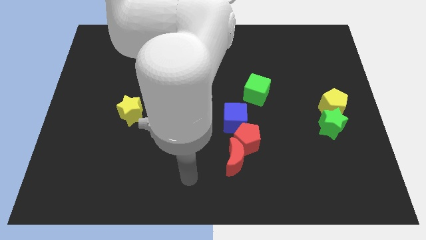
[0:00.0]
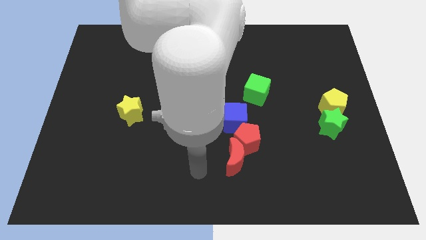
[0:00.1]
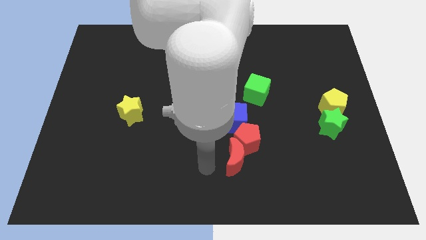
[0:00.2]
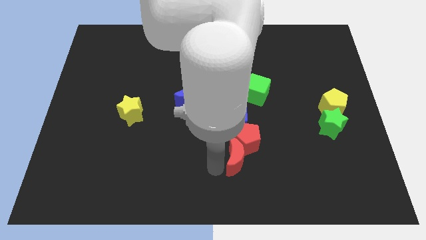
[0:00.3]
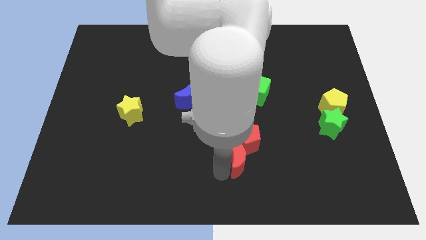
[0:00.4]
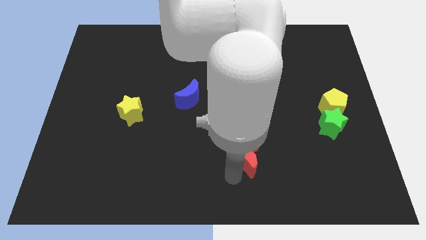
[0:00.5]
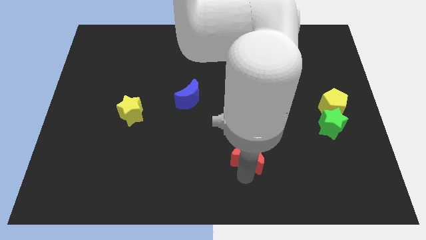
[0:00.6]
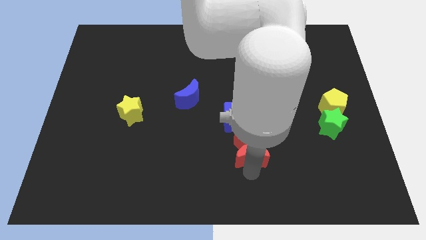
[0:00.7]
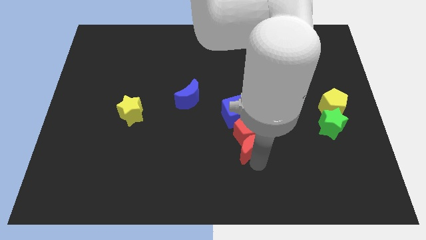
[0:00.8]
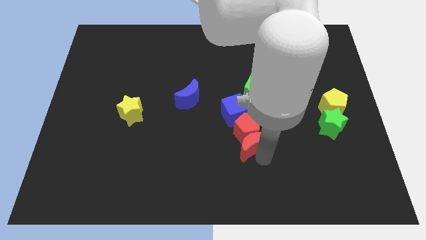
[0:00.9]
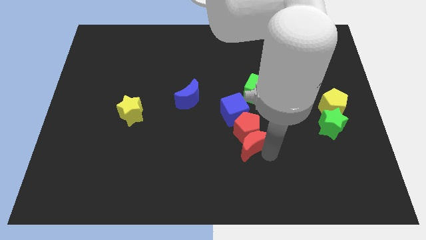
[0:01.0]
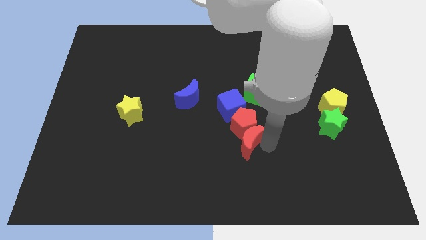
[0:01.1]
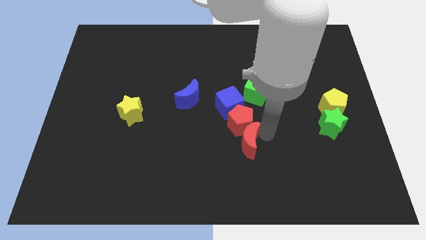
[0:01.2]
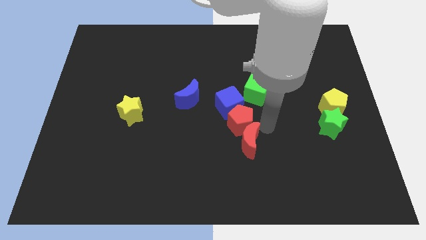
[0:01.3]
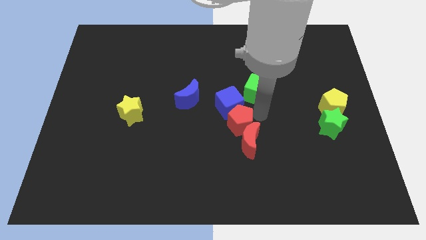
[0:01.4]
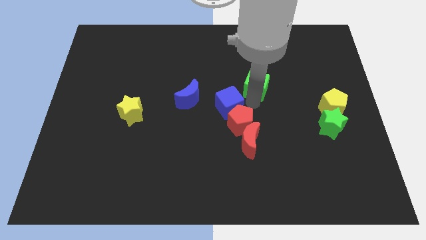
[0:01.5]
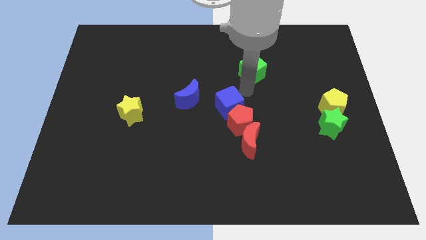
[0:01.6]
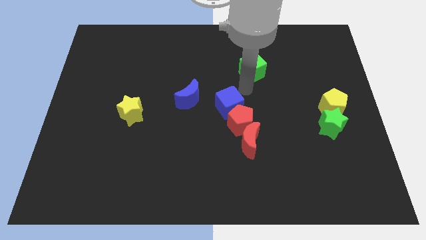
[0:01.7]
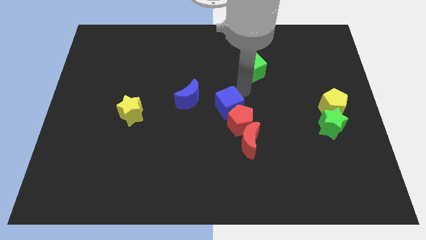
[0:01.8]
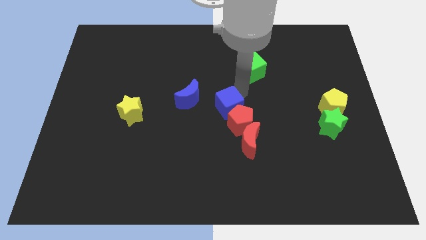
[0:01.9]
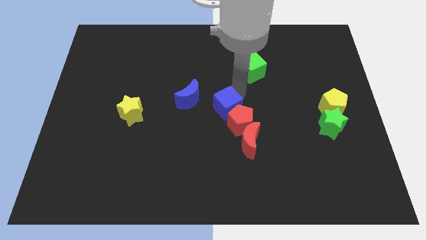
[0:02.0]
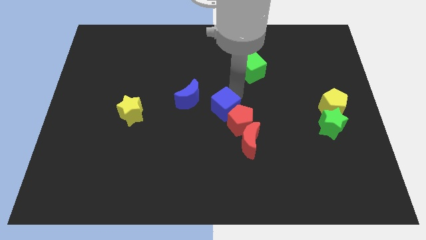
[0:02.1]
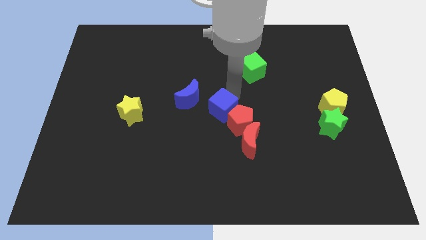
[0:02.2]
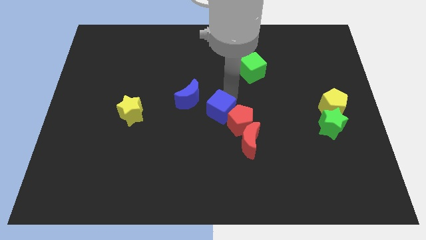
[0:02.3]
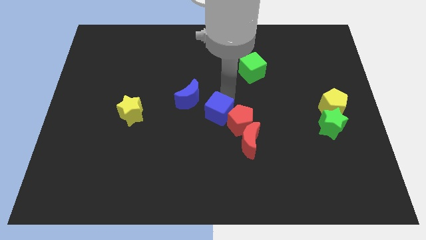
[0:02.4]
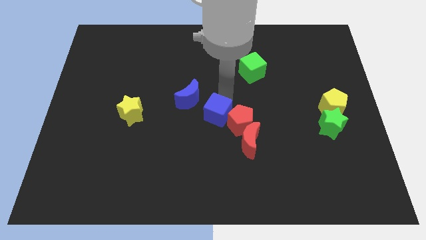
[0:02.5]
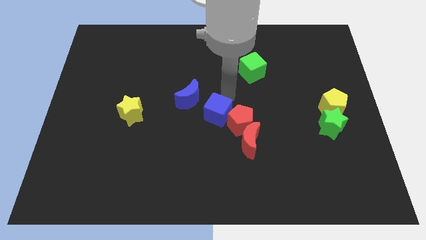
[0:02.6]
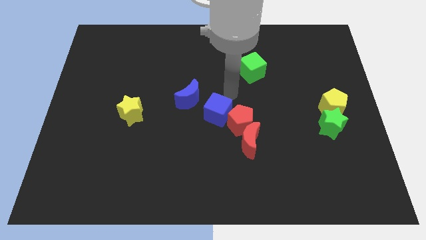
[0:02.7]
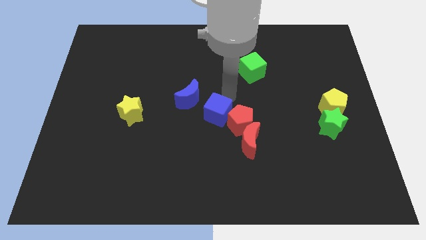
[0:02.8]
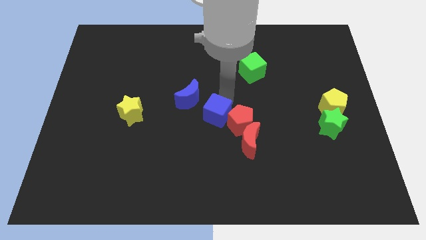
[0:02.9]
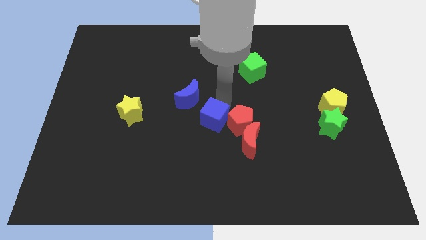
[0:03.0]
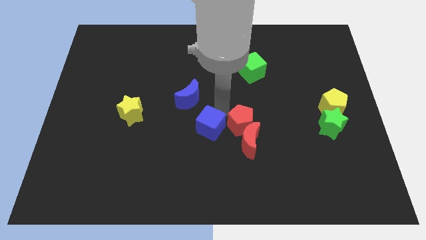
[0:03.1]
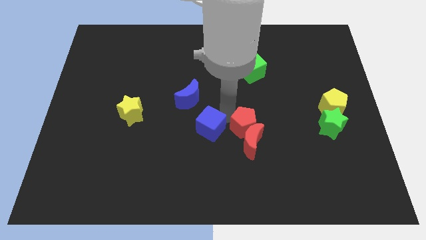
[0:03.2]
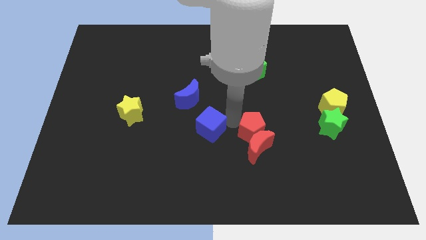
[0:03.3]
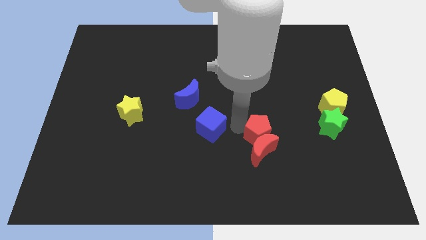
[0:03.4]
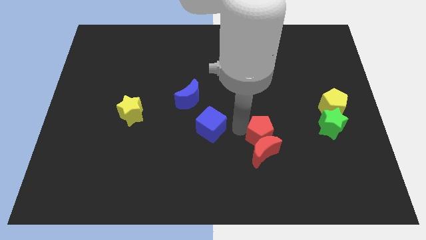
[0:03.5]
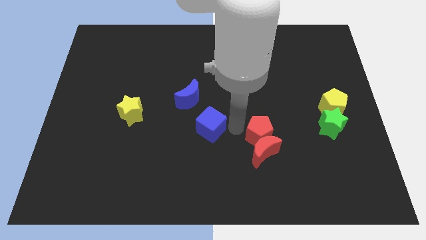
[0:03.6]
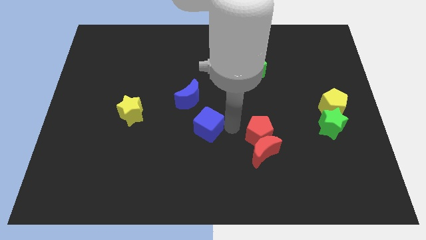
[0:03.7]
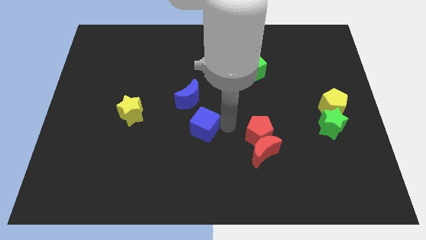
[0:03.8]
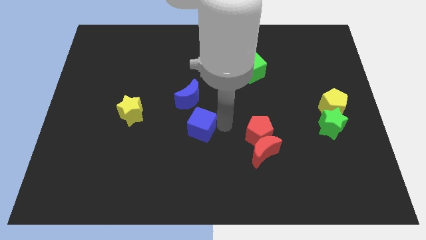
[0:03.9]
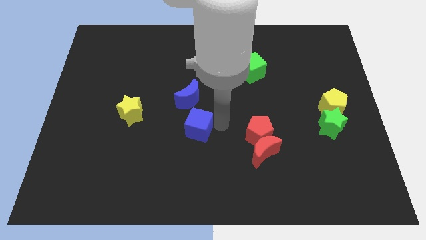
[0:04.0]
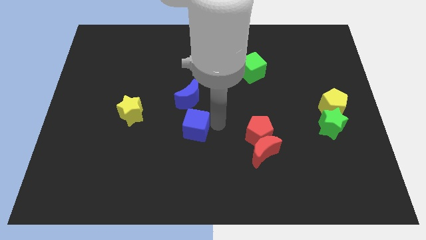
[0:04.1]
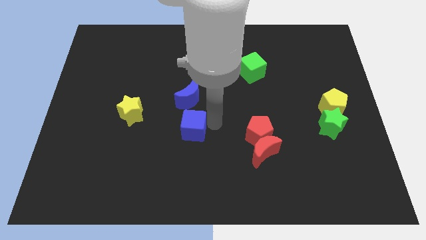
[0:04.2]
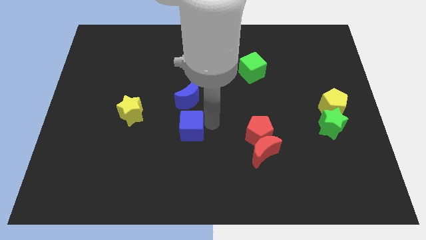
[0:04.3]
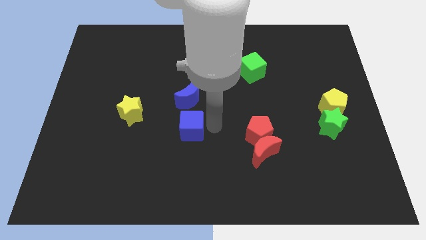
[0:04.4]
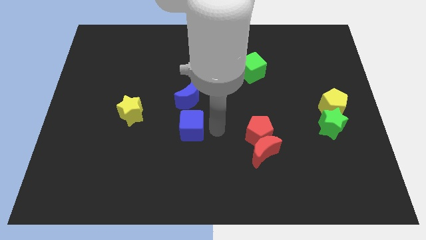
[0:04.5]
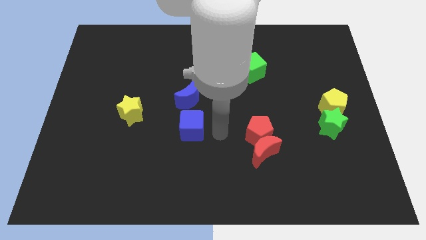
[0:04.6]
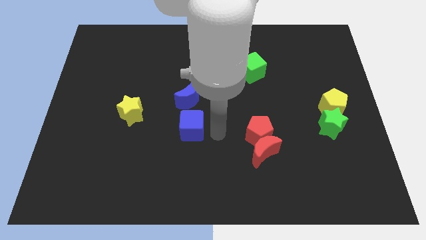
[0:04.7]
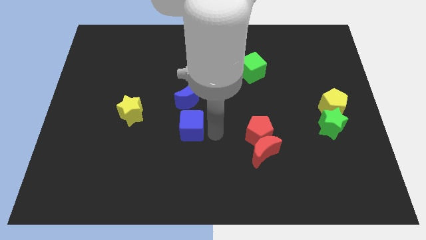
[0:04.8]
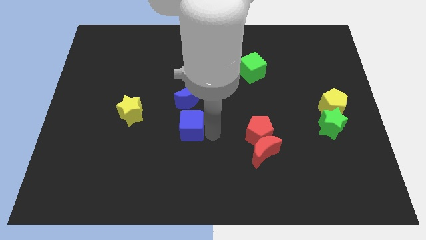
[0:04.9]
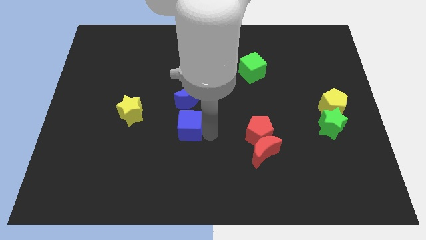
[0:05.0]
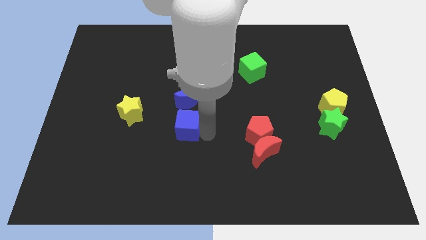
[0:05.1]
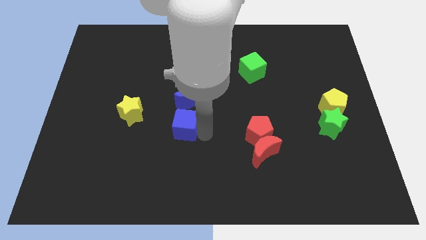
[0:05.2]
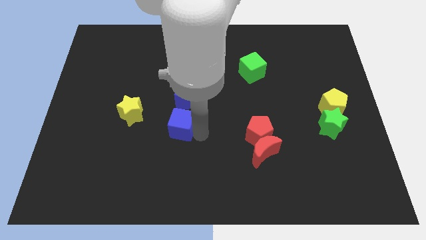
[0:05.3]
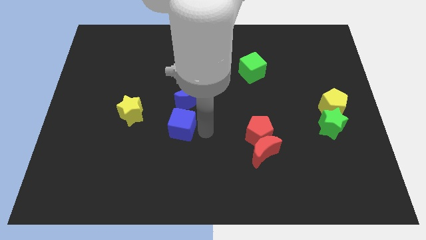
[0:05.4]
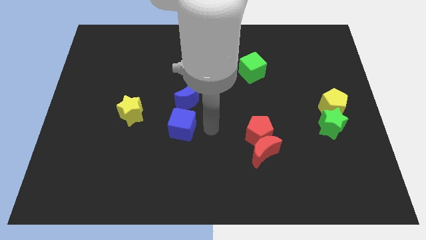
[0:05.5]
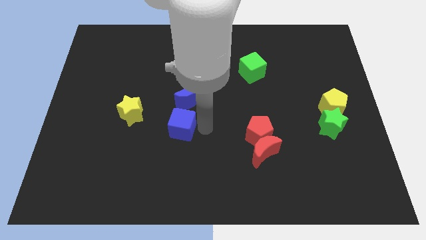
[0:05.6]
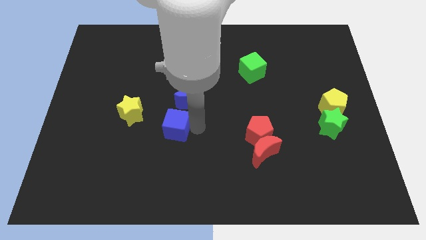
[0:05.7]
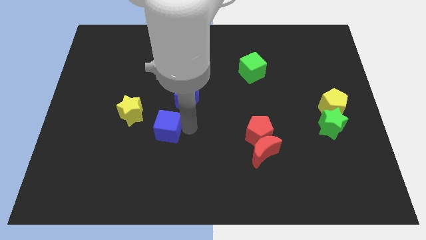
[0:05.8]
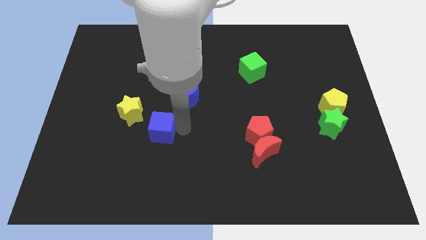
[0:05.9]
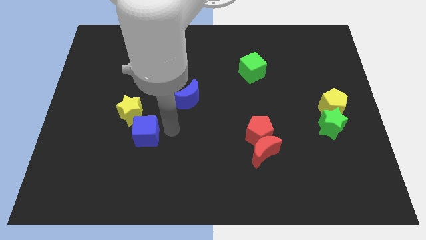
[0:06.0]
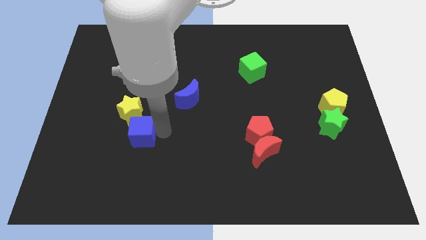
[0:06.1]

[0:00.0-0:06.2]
push the blue cube left

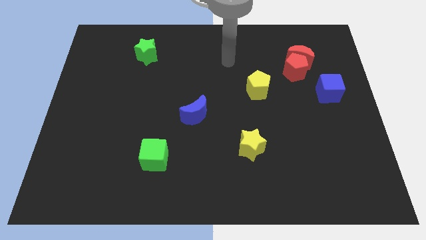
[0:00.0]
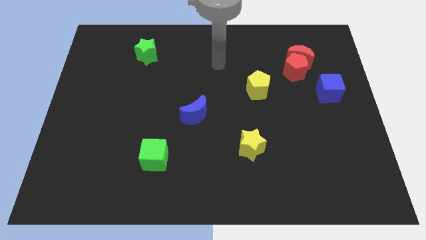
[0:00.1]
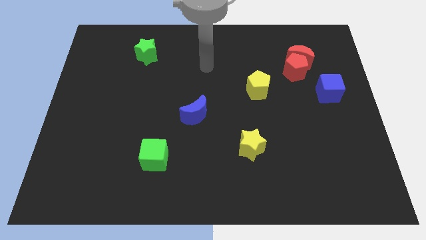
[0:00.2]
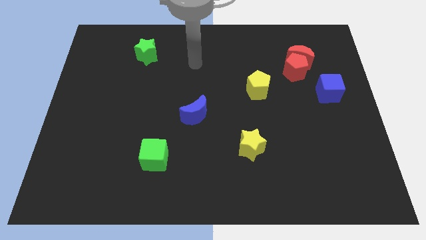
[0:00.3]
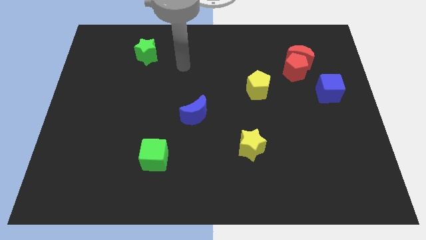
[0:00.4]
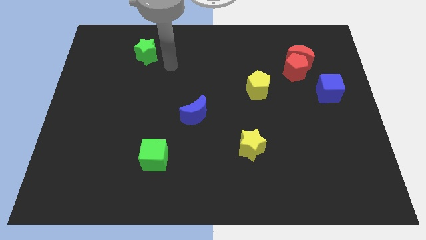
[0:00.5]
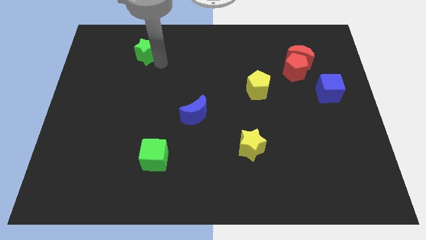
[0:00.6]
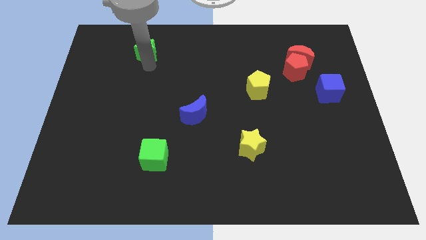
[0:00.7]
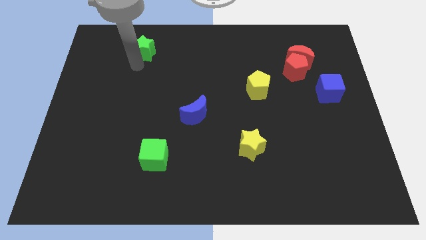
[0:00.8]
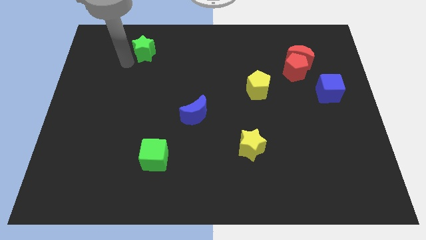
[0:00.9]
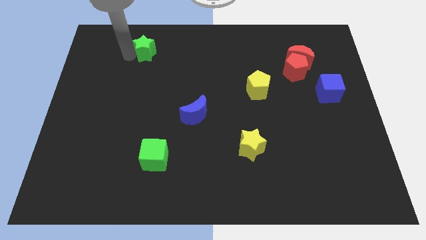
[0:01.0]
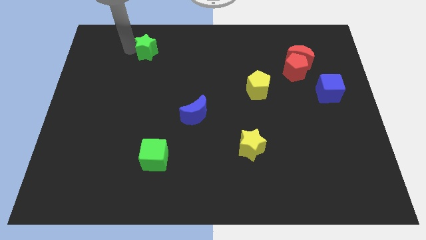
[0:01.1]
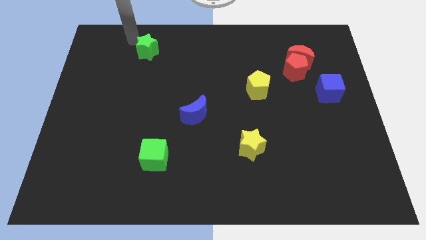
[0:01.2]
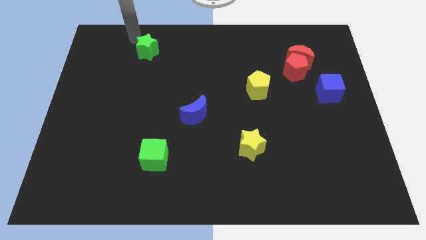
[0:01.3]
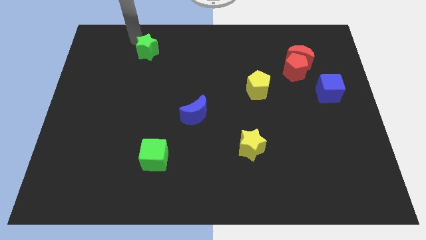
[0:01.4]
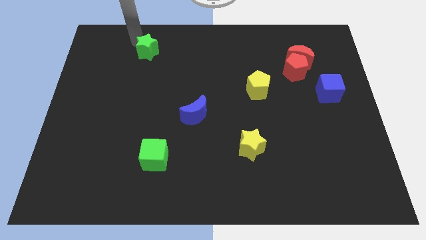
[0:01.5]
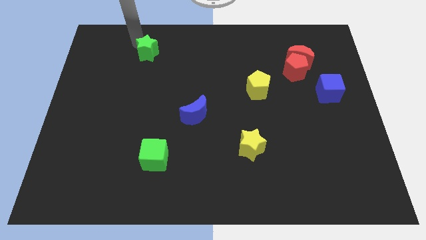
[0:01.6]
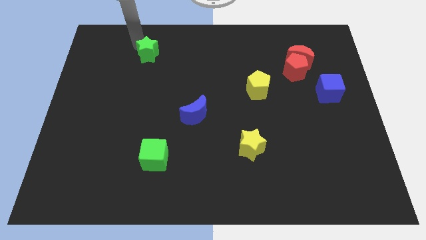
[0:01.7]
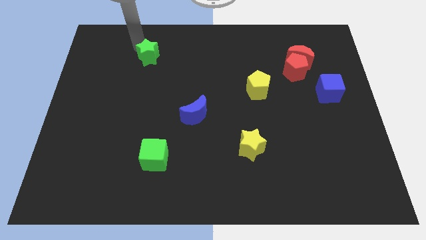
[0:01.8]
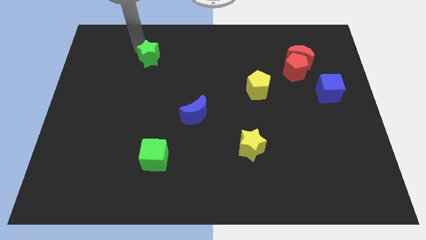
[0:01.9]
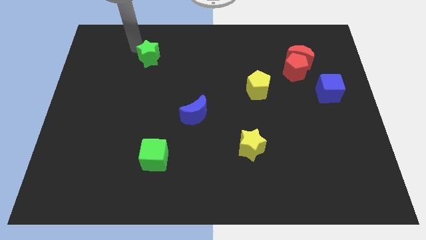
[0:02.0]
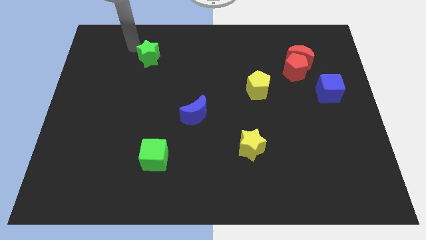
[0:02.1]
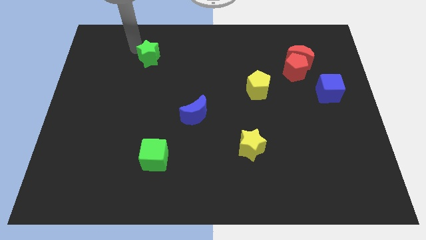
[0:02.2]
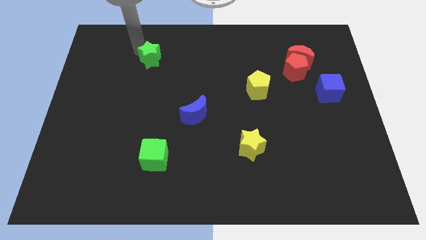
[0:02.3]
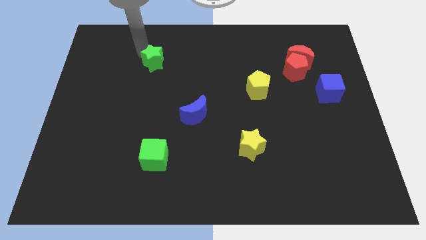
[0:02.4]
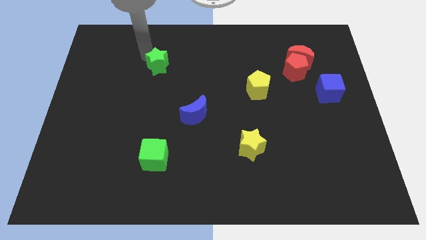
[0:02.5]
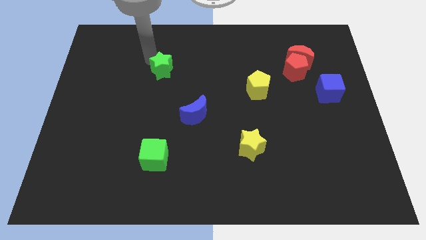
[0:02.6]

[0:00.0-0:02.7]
move the green star down and to the right diagonally a bit
